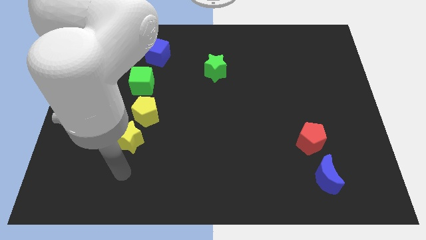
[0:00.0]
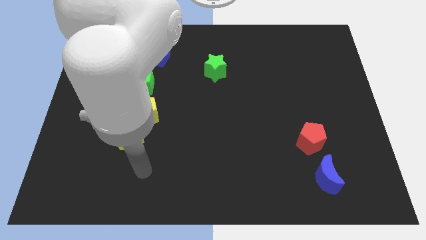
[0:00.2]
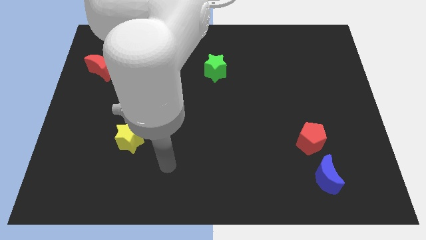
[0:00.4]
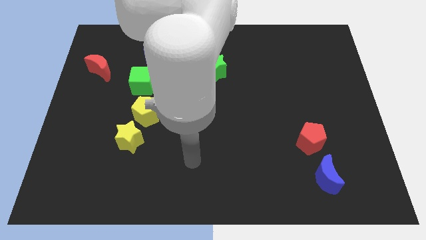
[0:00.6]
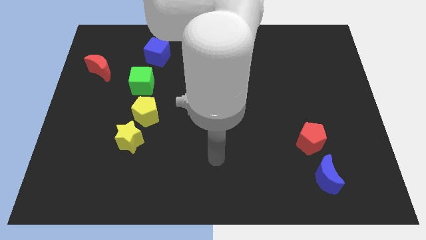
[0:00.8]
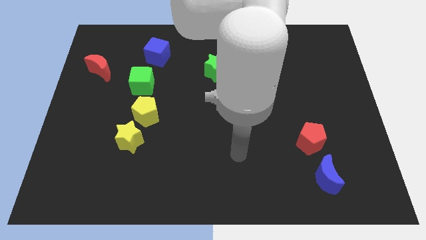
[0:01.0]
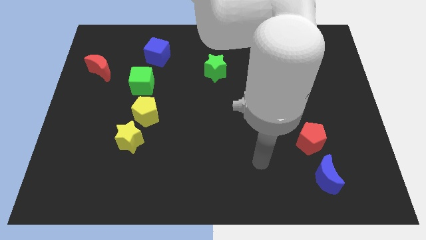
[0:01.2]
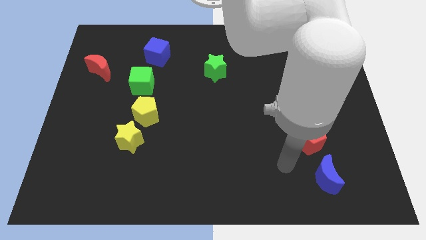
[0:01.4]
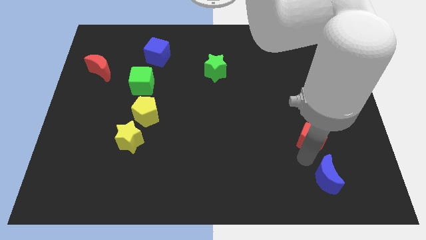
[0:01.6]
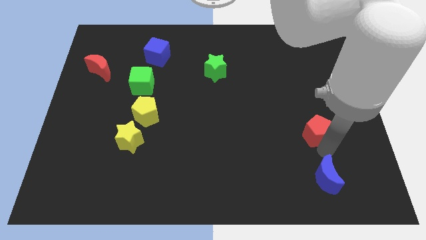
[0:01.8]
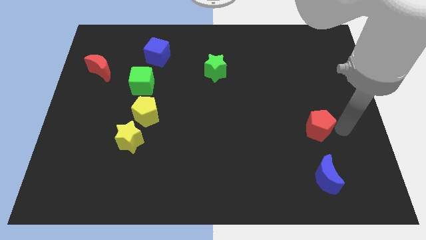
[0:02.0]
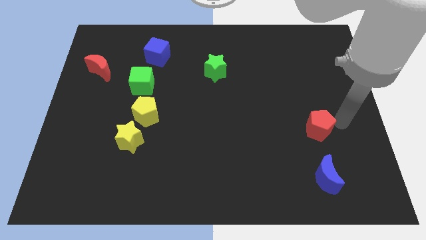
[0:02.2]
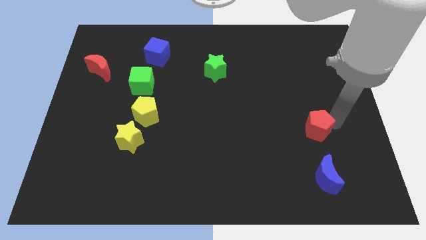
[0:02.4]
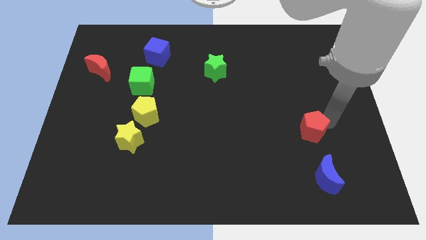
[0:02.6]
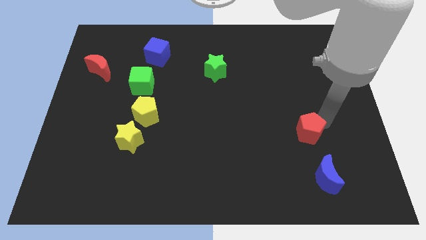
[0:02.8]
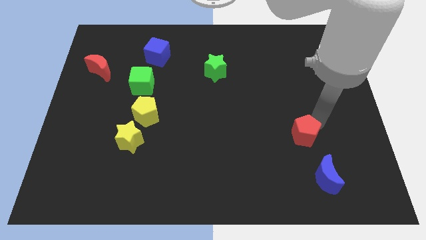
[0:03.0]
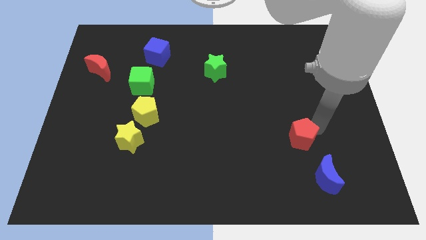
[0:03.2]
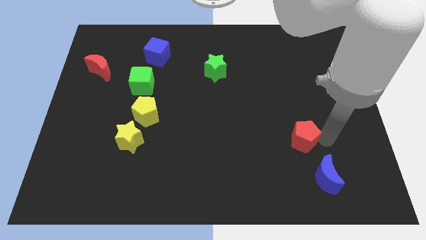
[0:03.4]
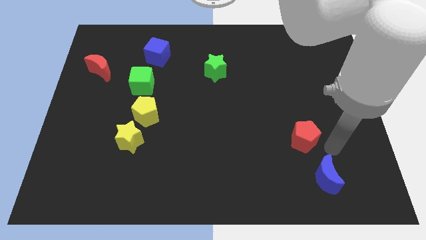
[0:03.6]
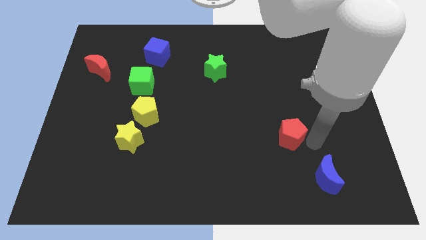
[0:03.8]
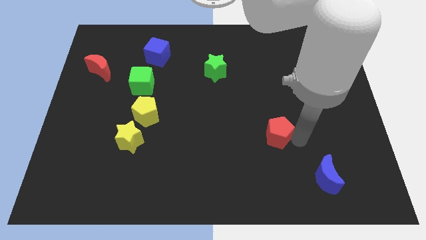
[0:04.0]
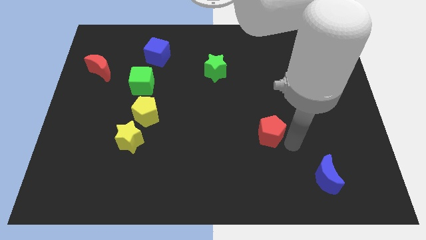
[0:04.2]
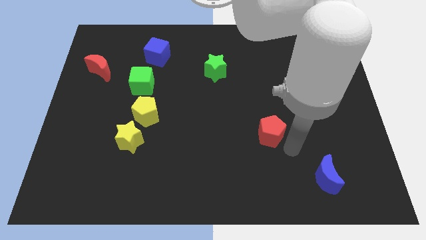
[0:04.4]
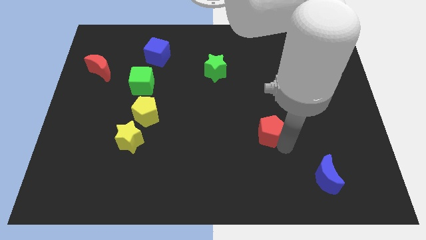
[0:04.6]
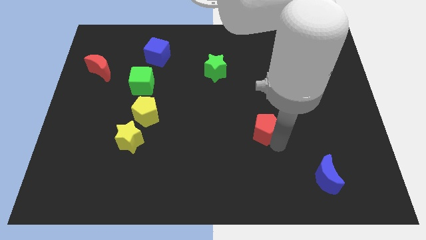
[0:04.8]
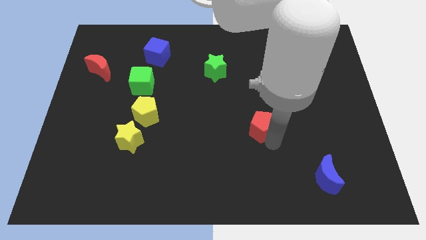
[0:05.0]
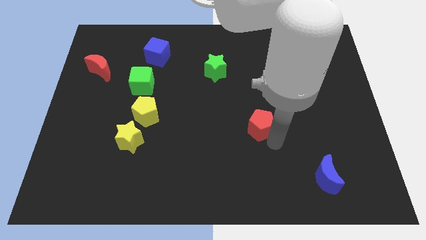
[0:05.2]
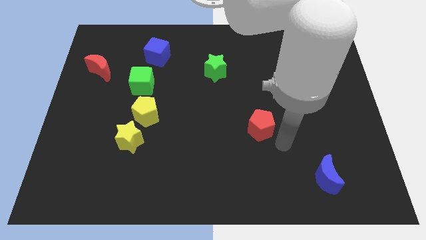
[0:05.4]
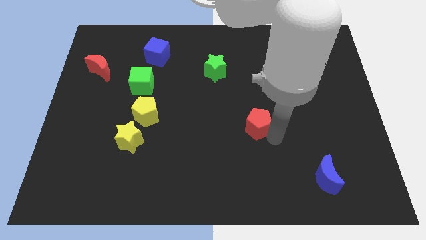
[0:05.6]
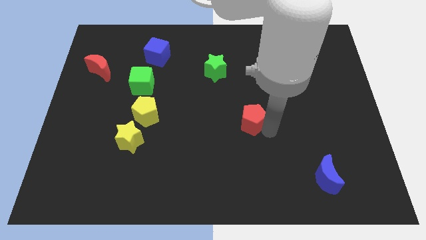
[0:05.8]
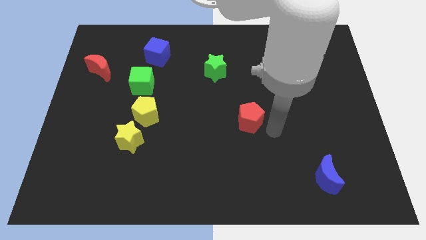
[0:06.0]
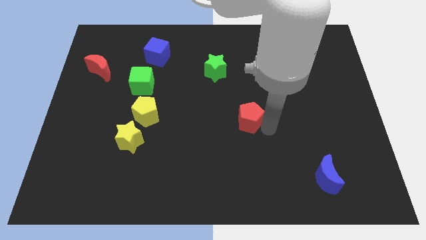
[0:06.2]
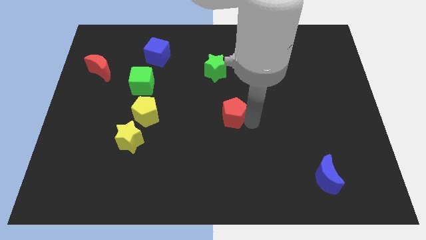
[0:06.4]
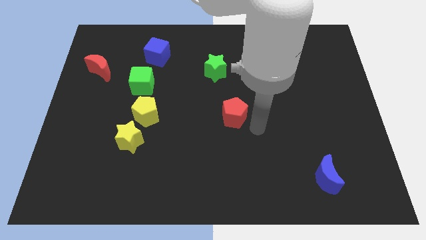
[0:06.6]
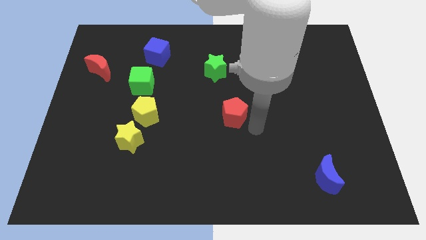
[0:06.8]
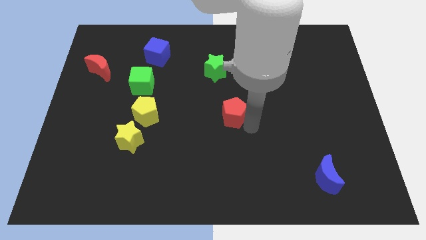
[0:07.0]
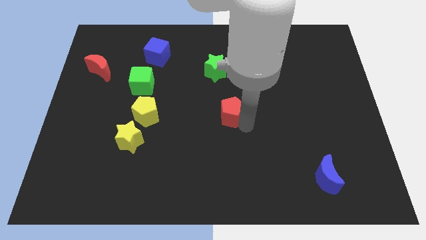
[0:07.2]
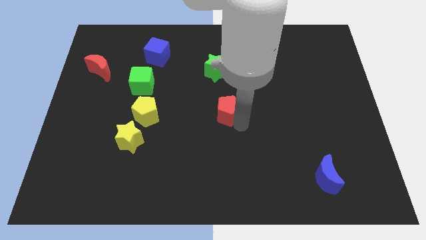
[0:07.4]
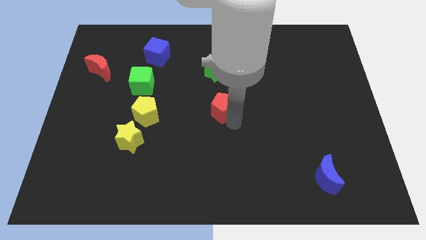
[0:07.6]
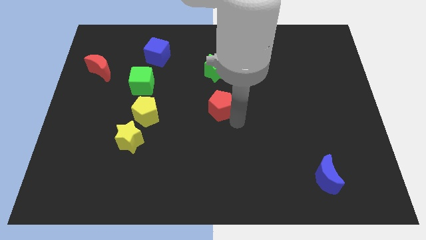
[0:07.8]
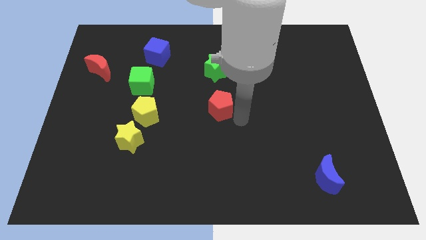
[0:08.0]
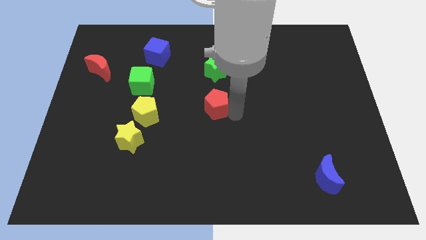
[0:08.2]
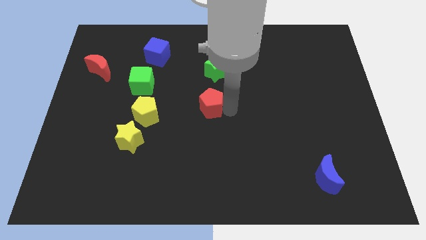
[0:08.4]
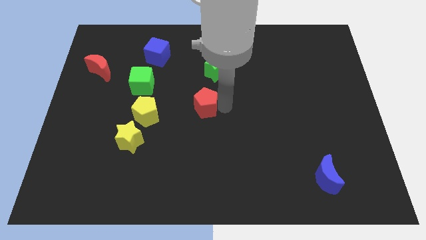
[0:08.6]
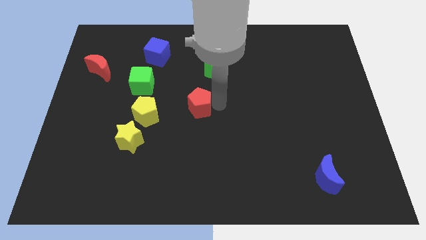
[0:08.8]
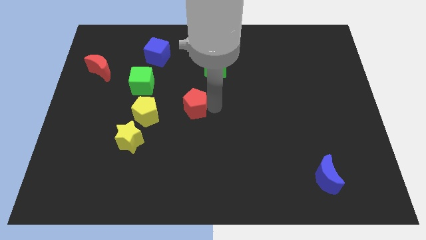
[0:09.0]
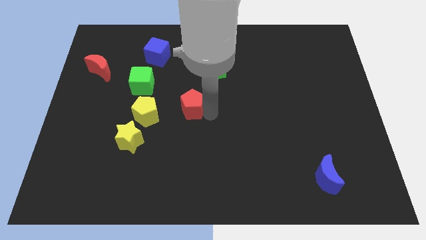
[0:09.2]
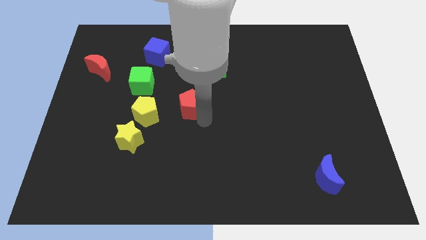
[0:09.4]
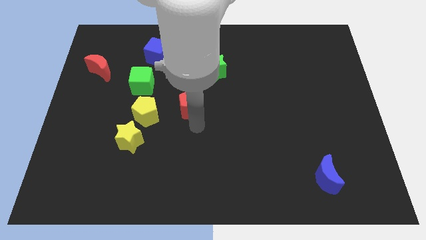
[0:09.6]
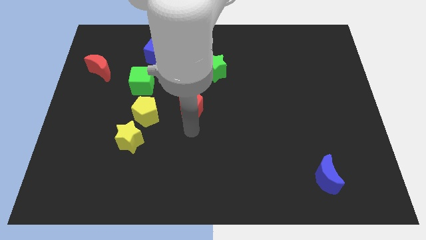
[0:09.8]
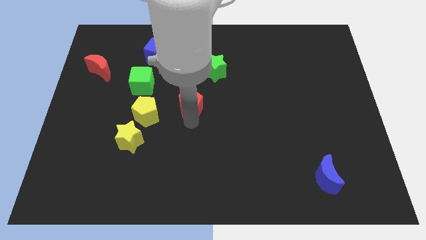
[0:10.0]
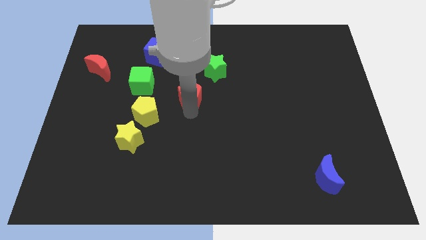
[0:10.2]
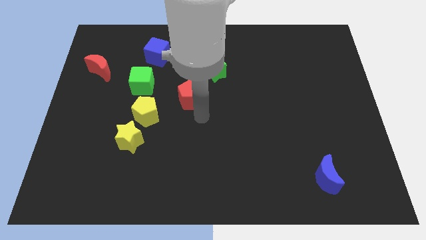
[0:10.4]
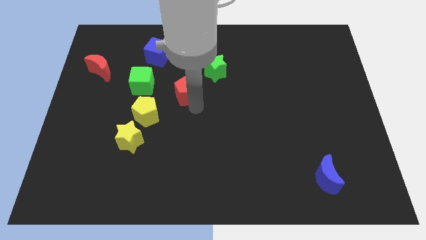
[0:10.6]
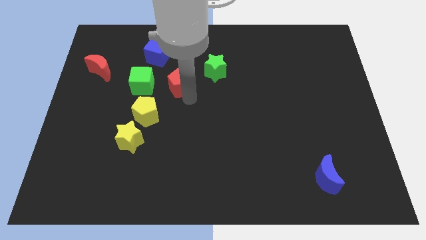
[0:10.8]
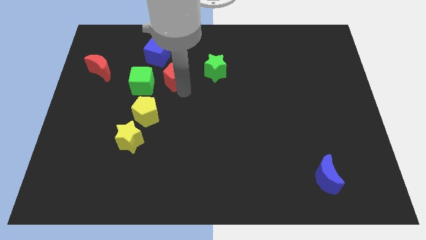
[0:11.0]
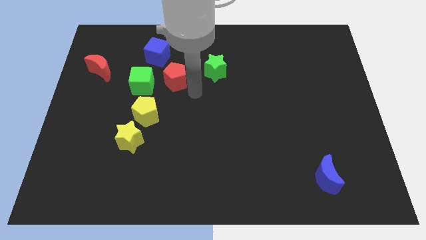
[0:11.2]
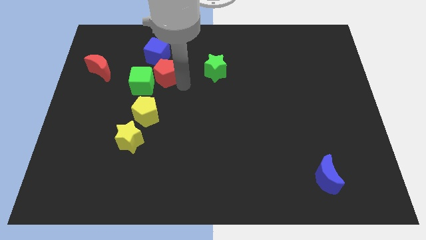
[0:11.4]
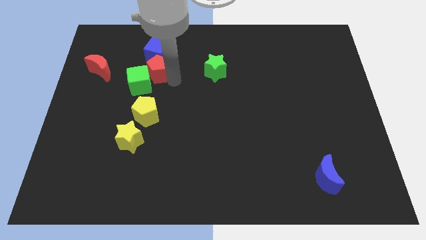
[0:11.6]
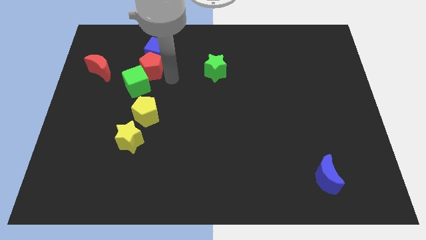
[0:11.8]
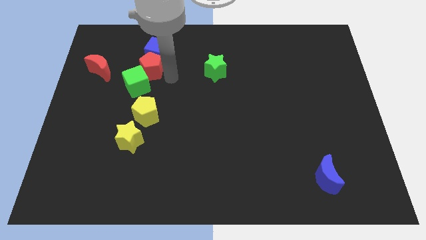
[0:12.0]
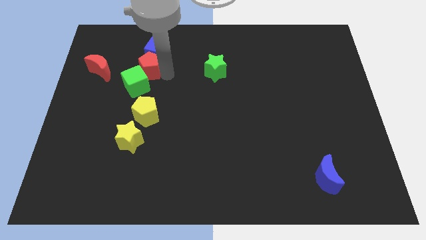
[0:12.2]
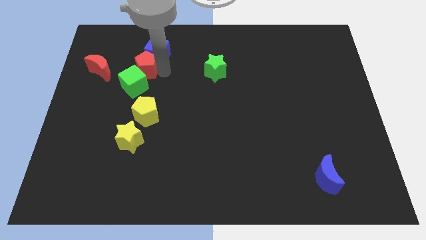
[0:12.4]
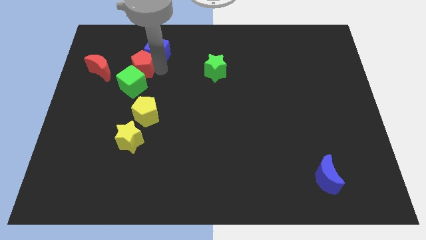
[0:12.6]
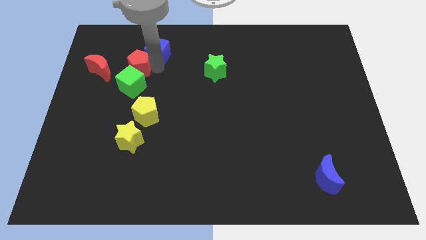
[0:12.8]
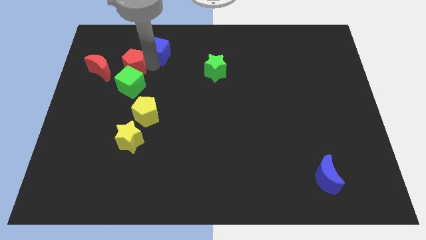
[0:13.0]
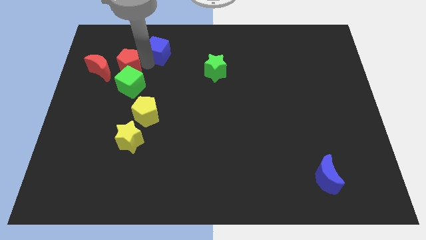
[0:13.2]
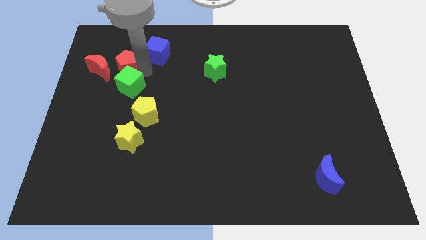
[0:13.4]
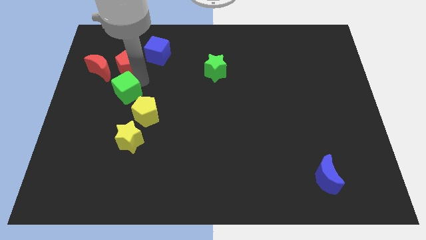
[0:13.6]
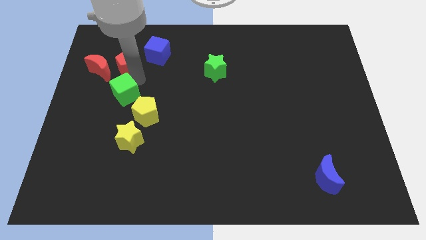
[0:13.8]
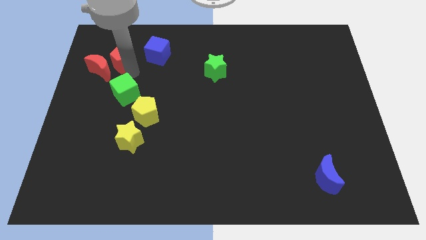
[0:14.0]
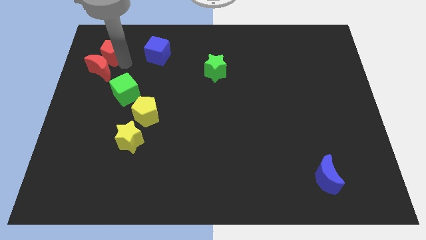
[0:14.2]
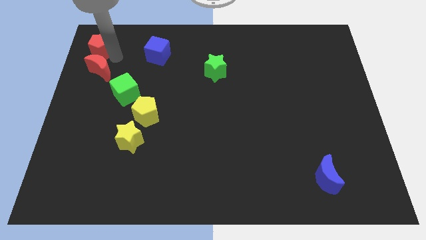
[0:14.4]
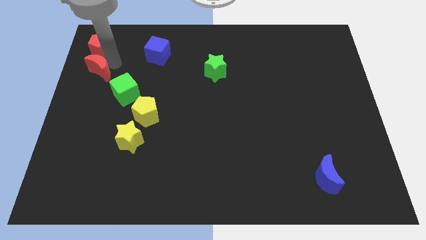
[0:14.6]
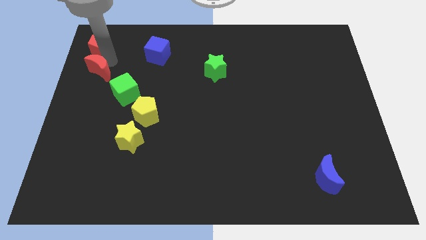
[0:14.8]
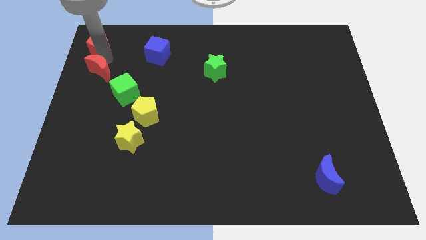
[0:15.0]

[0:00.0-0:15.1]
slide the red pentagon to the top left corner
